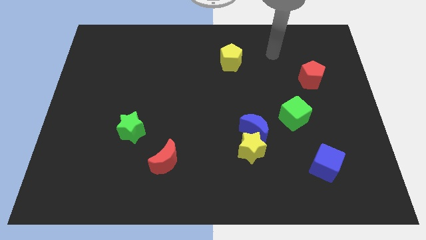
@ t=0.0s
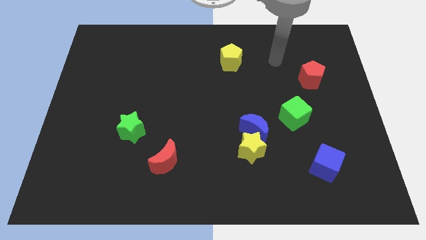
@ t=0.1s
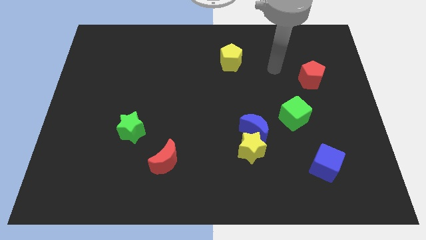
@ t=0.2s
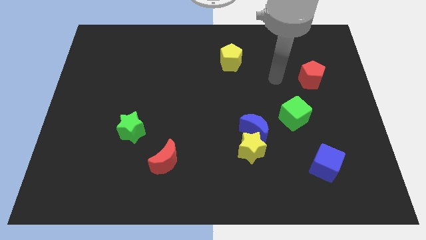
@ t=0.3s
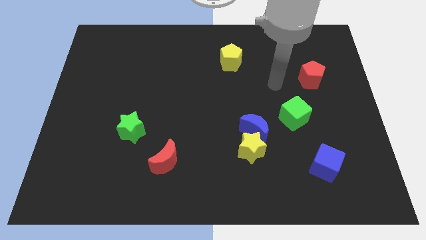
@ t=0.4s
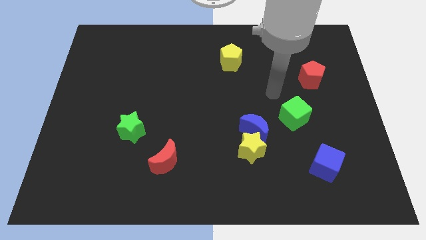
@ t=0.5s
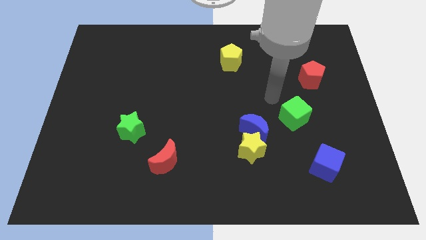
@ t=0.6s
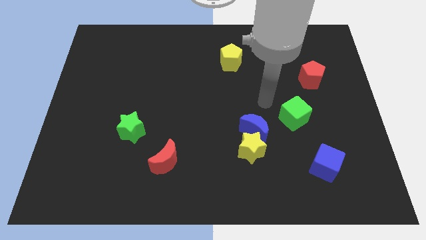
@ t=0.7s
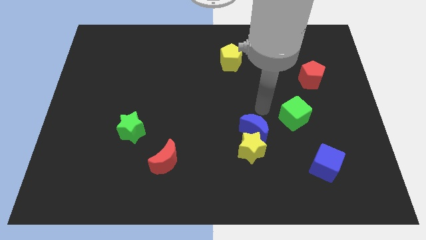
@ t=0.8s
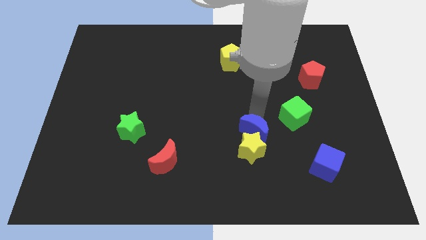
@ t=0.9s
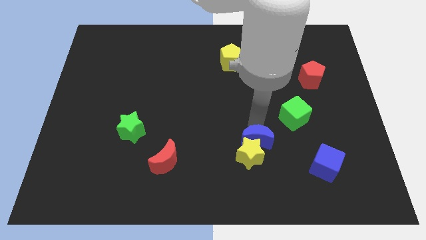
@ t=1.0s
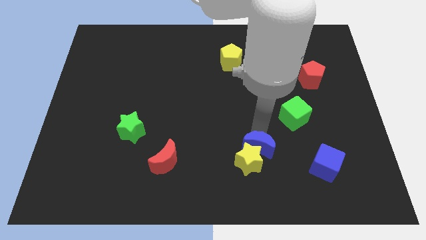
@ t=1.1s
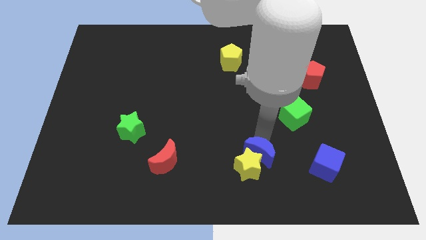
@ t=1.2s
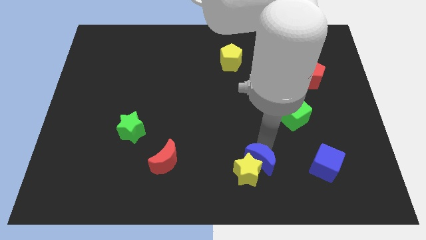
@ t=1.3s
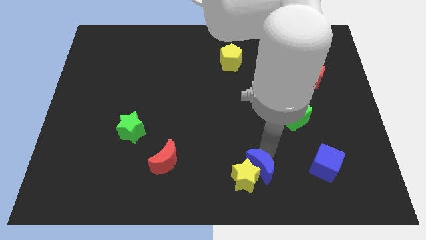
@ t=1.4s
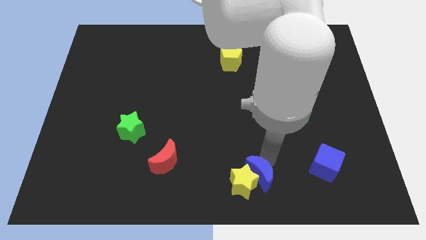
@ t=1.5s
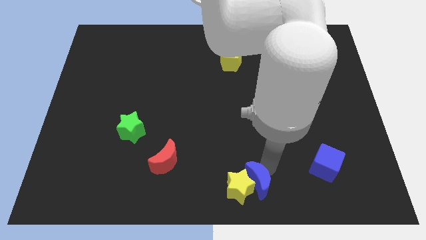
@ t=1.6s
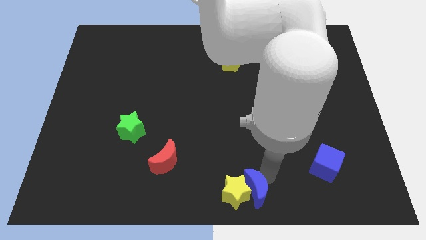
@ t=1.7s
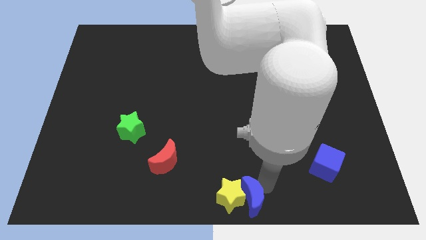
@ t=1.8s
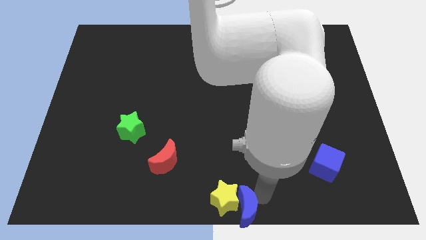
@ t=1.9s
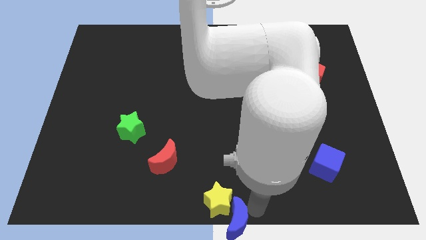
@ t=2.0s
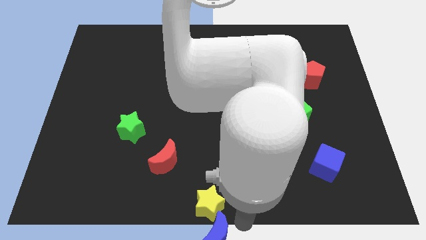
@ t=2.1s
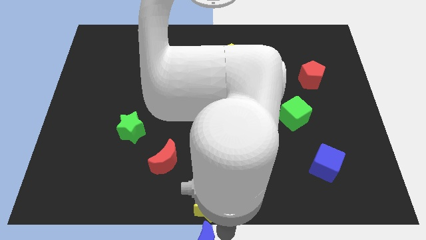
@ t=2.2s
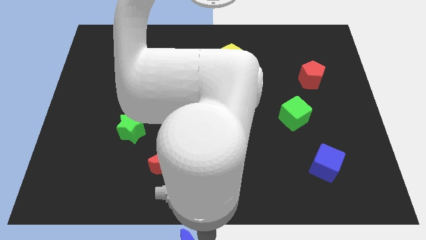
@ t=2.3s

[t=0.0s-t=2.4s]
pull the yellow star apart from the blue moon

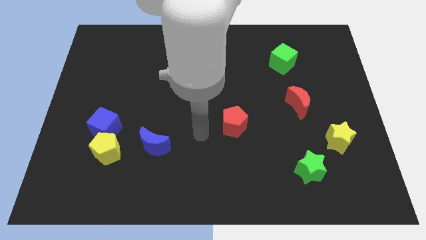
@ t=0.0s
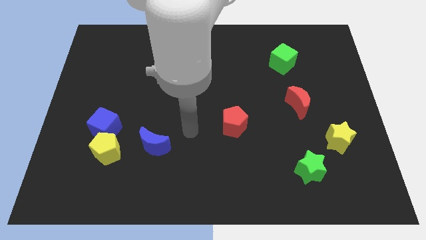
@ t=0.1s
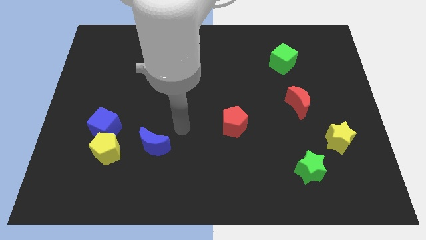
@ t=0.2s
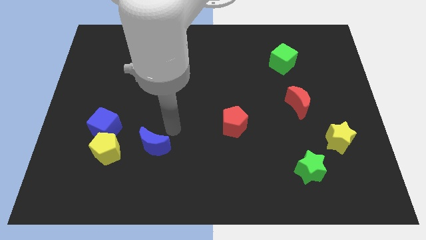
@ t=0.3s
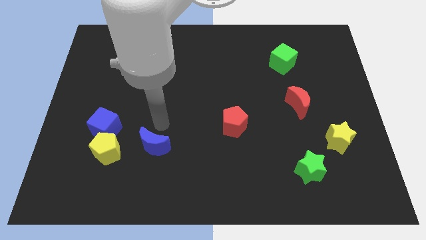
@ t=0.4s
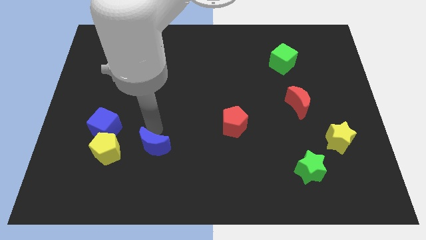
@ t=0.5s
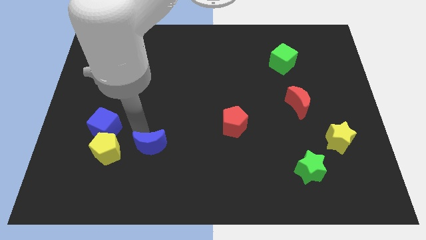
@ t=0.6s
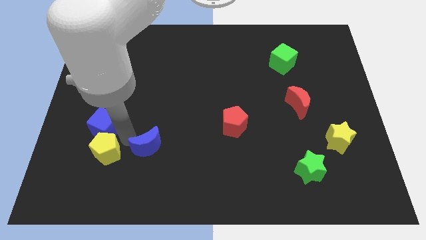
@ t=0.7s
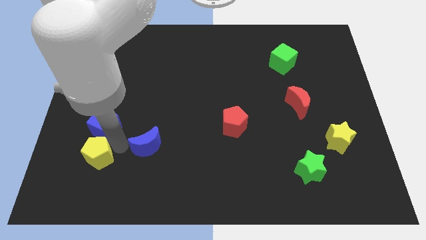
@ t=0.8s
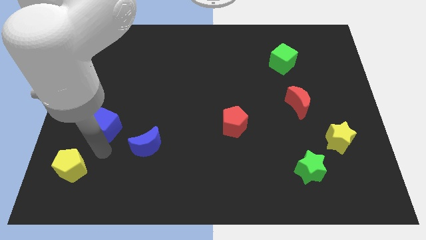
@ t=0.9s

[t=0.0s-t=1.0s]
move the blue cube away from the yellow pentagon

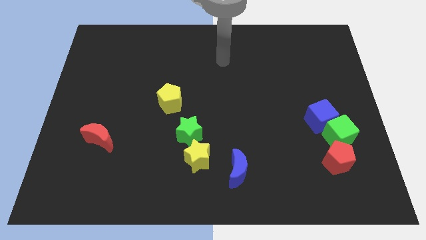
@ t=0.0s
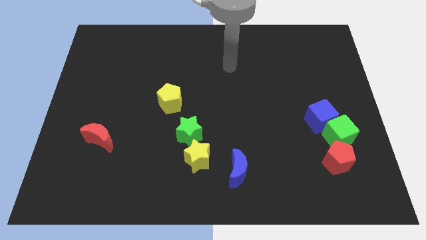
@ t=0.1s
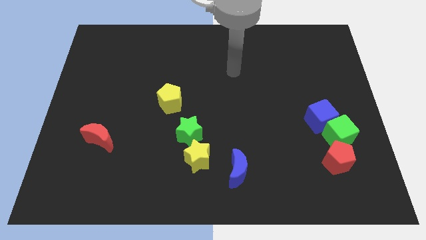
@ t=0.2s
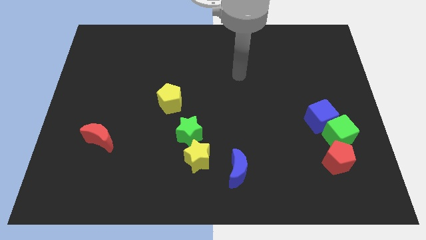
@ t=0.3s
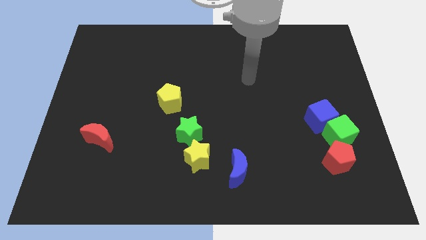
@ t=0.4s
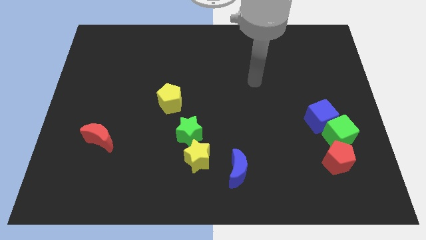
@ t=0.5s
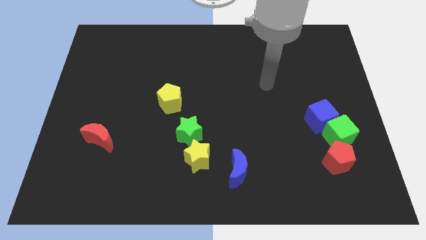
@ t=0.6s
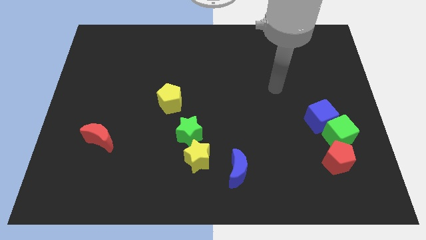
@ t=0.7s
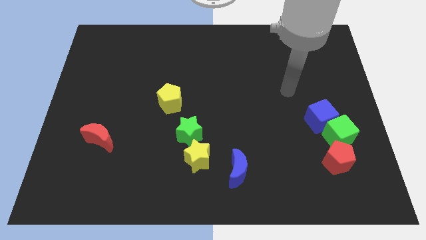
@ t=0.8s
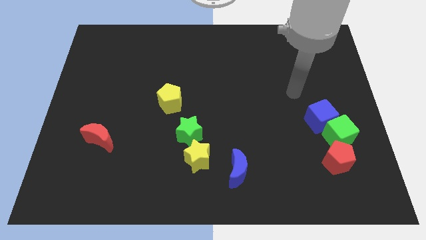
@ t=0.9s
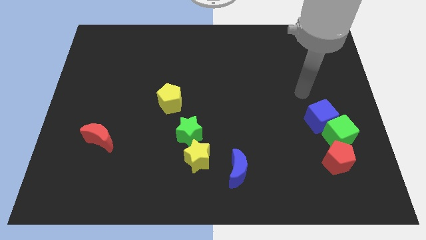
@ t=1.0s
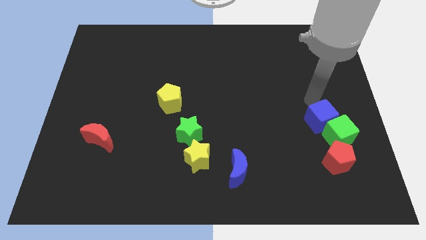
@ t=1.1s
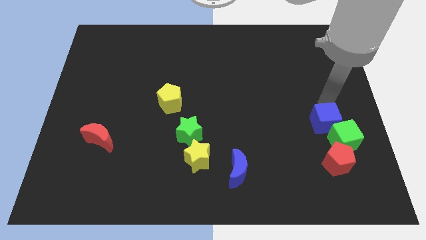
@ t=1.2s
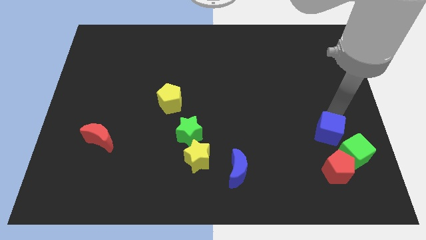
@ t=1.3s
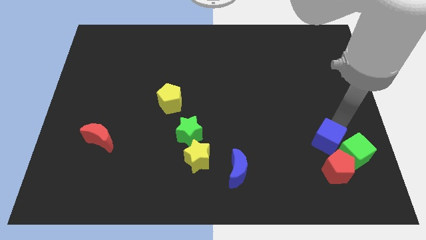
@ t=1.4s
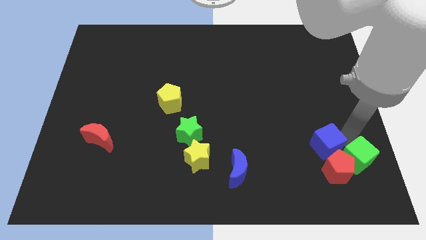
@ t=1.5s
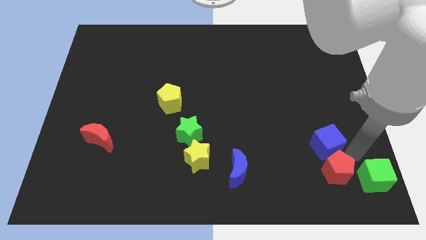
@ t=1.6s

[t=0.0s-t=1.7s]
pull the blue cube apart from the green cube

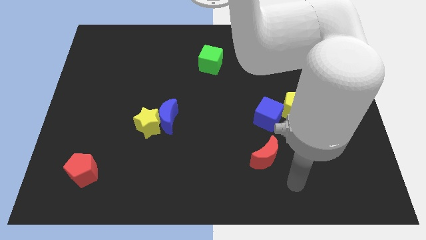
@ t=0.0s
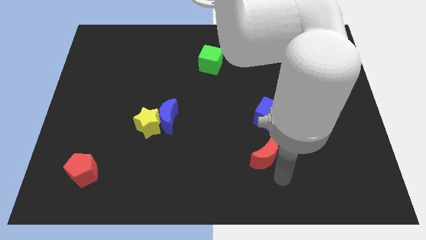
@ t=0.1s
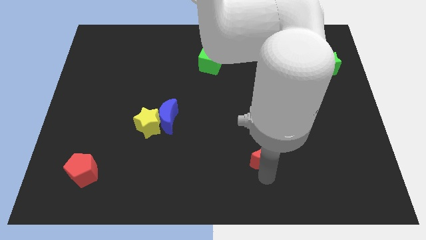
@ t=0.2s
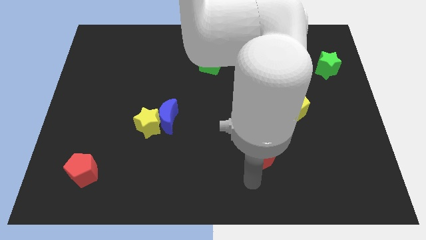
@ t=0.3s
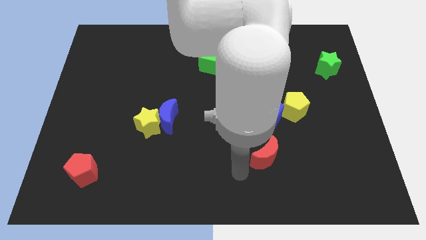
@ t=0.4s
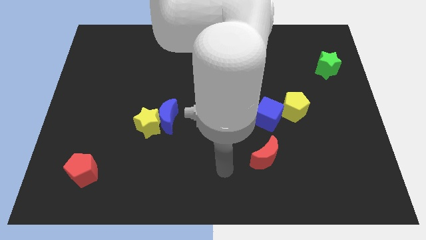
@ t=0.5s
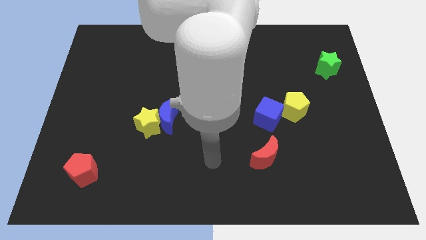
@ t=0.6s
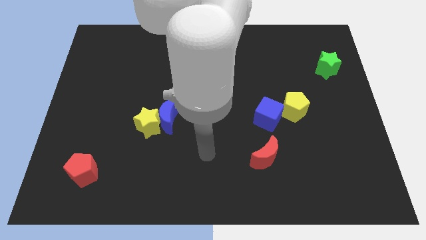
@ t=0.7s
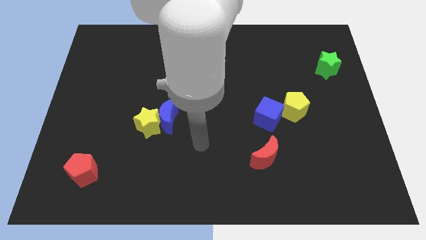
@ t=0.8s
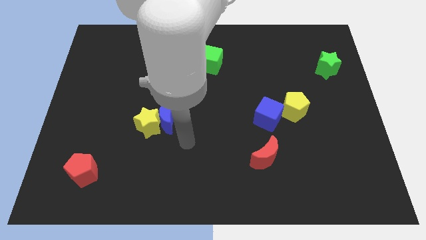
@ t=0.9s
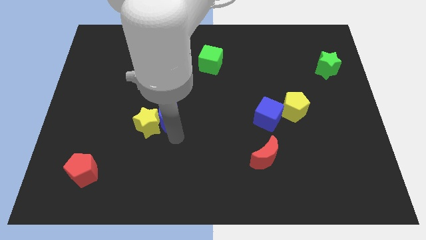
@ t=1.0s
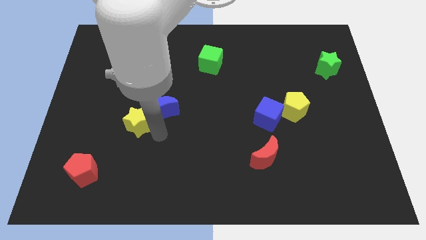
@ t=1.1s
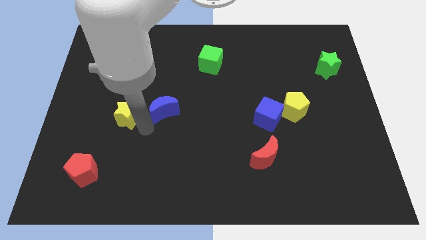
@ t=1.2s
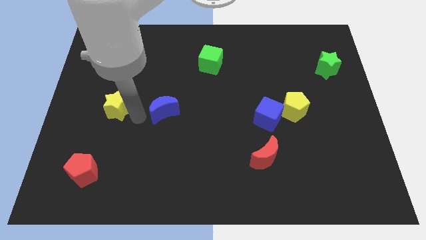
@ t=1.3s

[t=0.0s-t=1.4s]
pull the blue moon apart from the yellow star

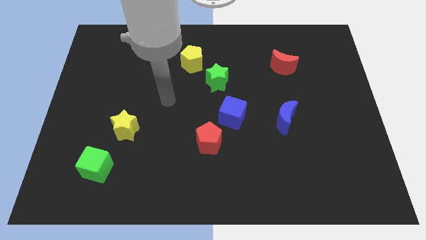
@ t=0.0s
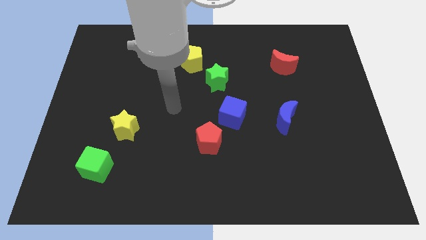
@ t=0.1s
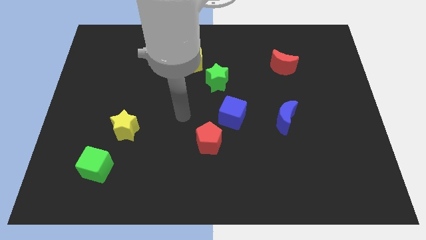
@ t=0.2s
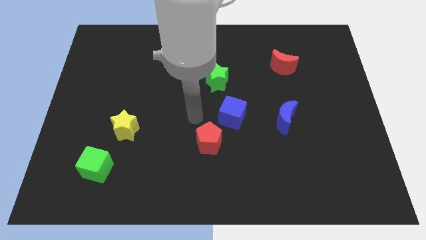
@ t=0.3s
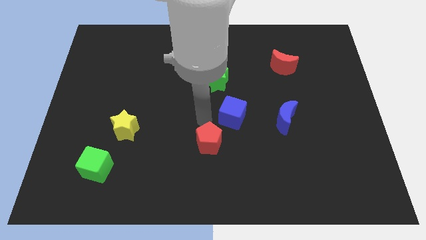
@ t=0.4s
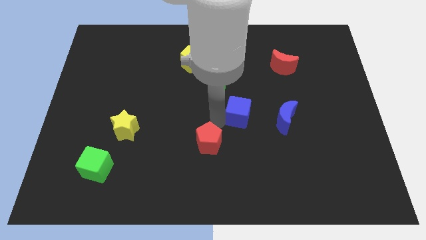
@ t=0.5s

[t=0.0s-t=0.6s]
pull the red pentagon apart from the blue cube

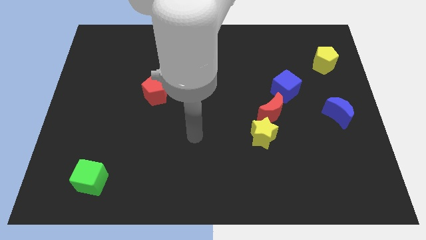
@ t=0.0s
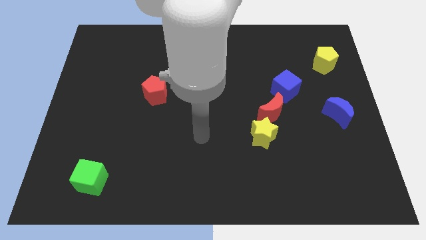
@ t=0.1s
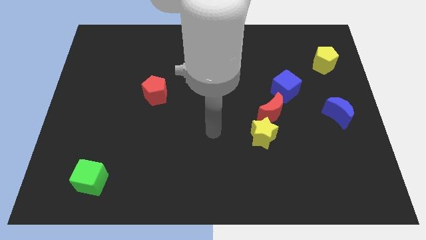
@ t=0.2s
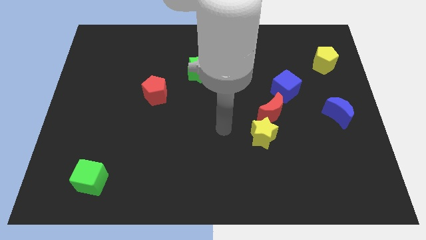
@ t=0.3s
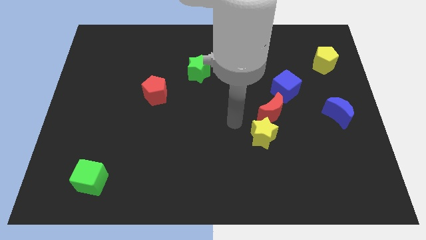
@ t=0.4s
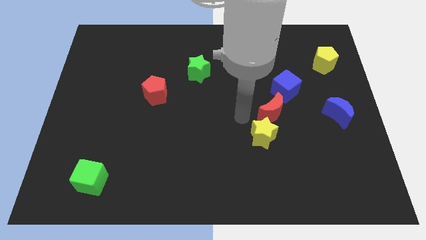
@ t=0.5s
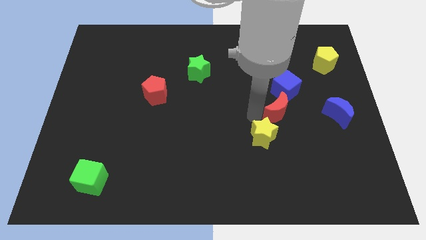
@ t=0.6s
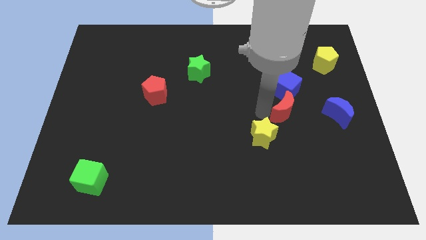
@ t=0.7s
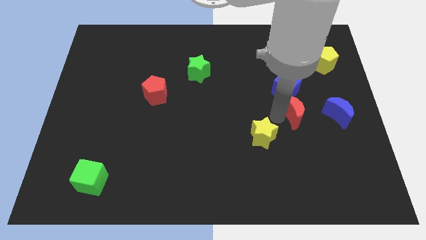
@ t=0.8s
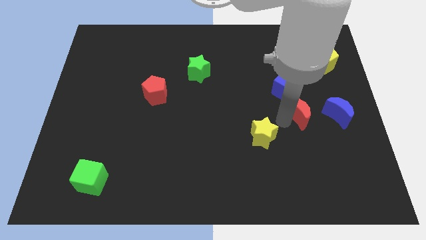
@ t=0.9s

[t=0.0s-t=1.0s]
move the yellow star away from the red moon

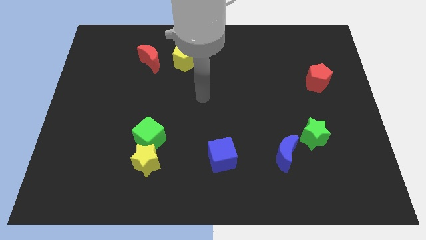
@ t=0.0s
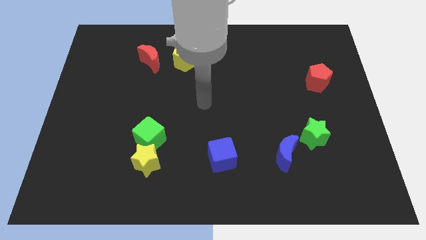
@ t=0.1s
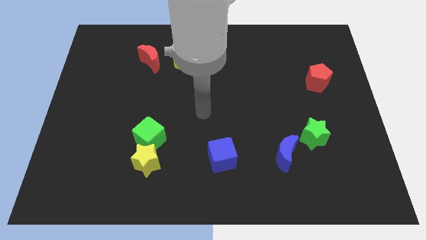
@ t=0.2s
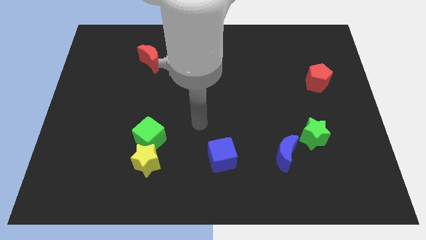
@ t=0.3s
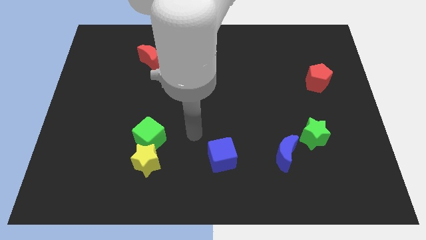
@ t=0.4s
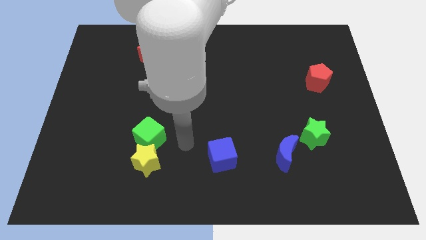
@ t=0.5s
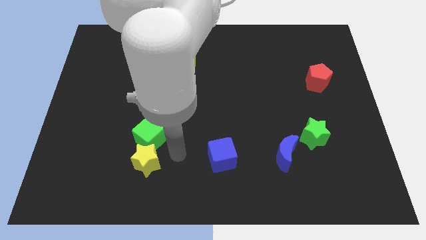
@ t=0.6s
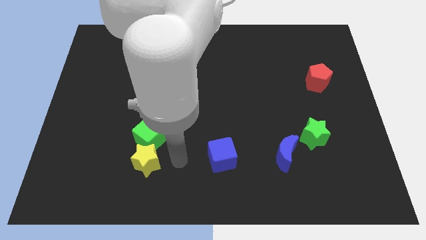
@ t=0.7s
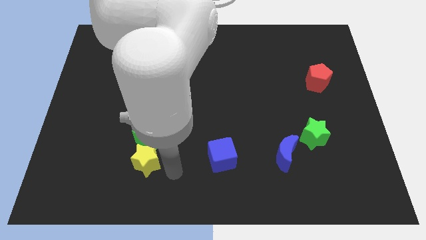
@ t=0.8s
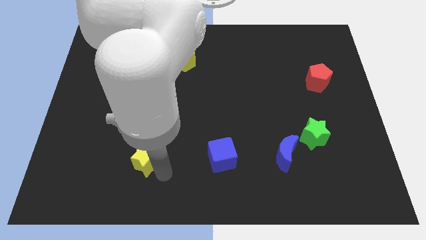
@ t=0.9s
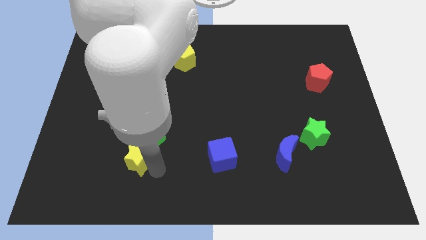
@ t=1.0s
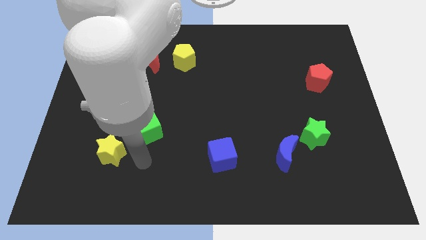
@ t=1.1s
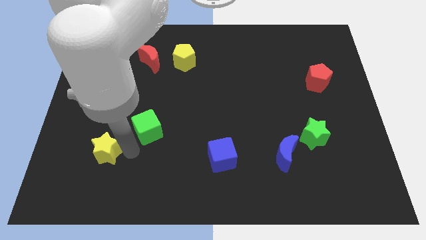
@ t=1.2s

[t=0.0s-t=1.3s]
move the green cube away from the yellow star
